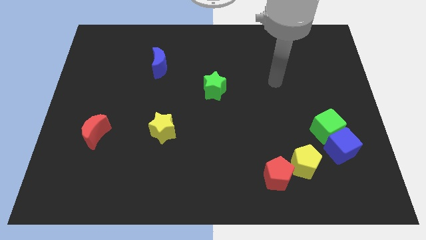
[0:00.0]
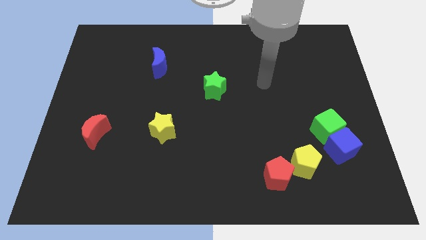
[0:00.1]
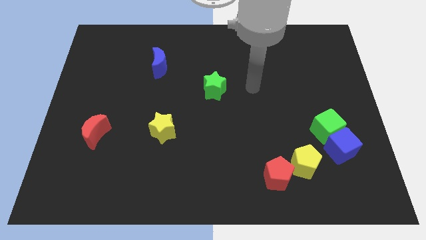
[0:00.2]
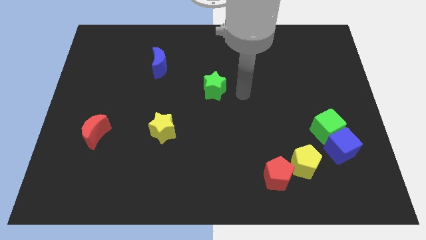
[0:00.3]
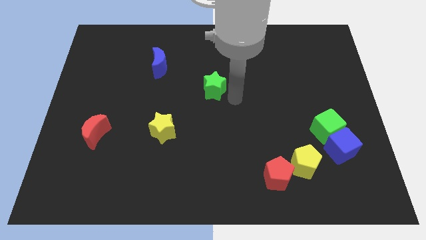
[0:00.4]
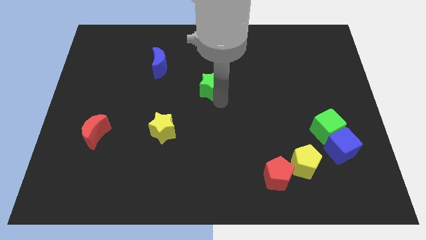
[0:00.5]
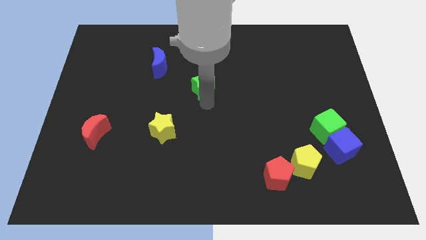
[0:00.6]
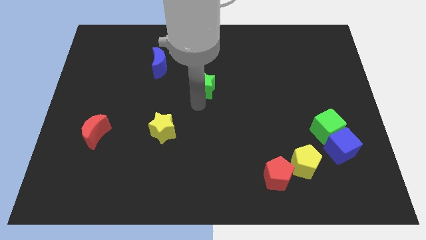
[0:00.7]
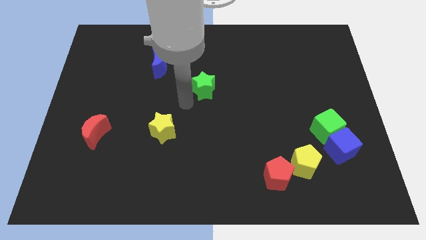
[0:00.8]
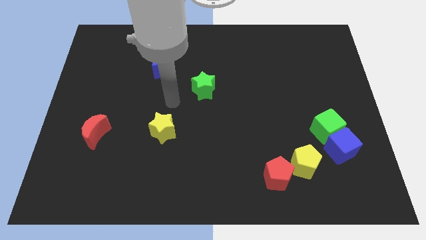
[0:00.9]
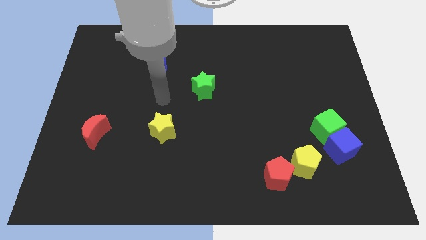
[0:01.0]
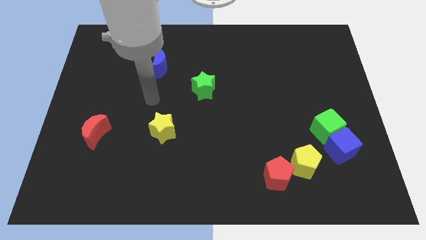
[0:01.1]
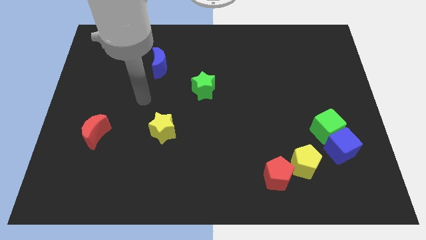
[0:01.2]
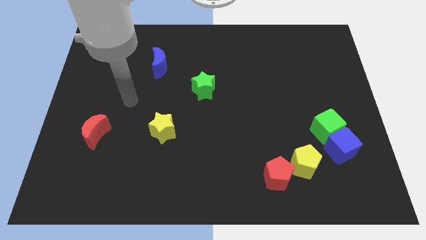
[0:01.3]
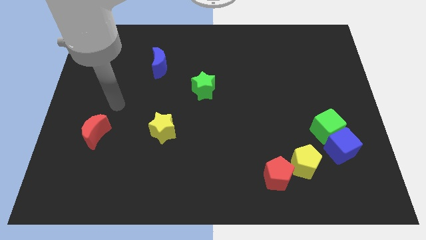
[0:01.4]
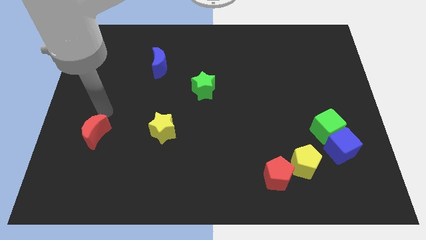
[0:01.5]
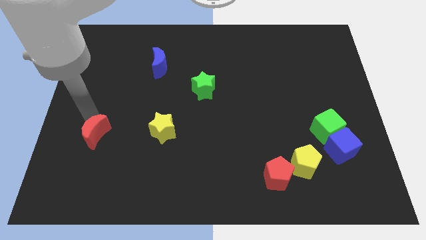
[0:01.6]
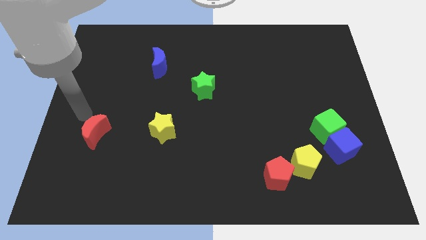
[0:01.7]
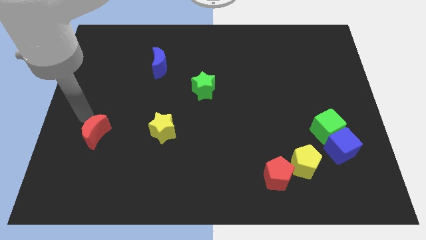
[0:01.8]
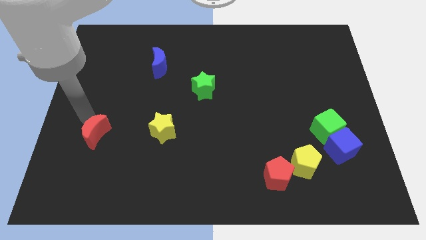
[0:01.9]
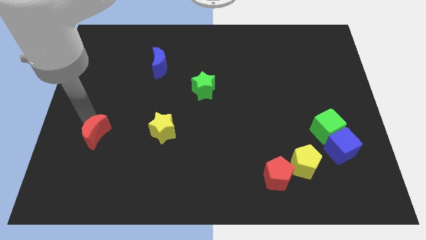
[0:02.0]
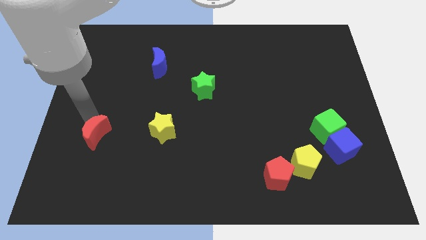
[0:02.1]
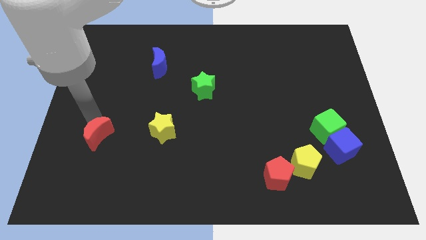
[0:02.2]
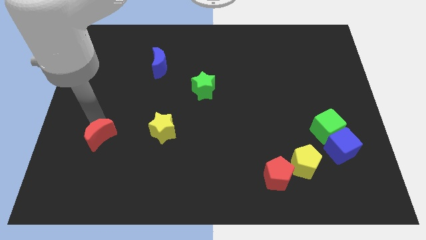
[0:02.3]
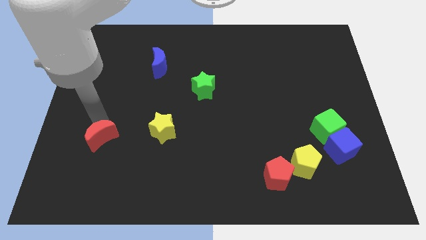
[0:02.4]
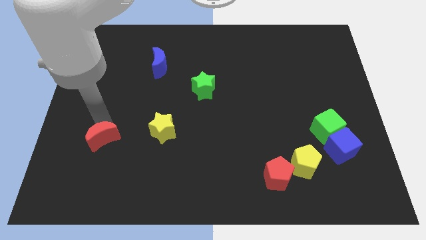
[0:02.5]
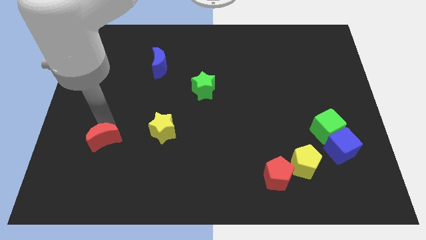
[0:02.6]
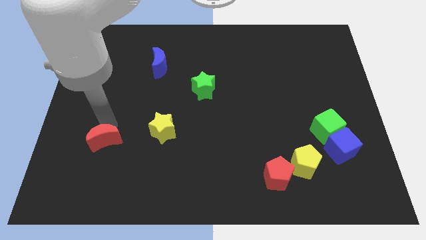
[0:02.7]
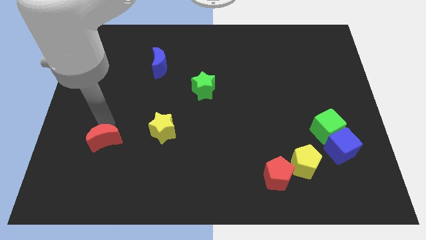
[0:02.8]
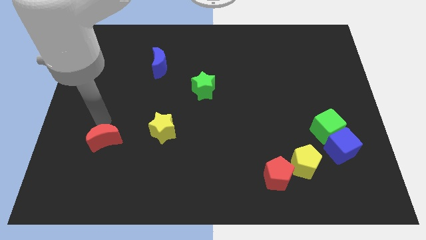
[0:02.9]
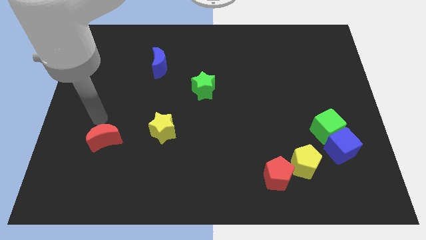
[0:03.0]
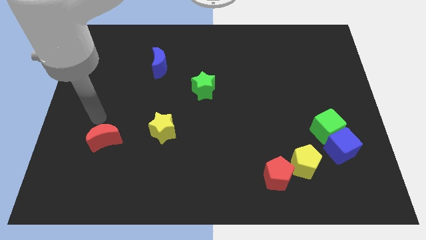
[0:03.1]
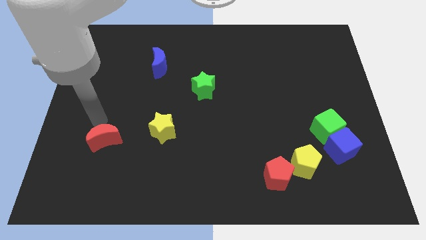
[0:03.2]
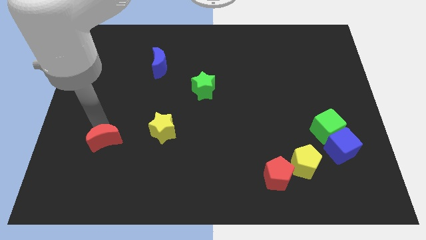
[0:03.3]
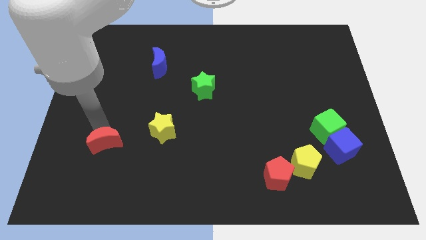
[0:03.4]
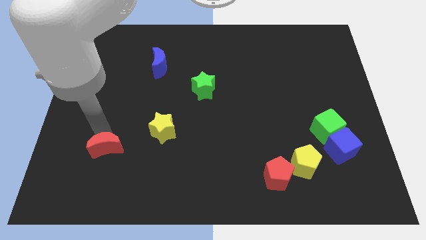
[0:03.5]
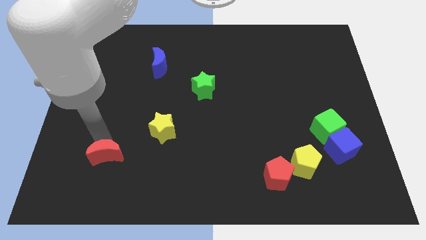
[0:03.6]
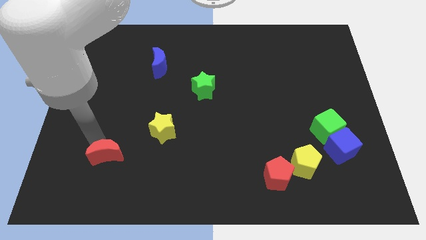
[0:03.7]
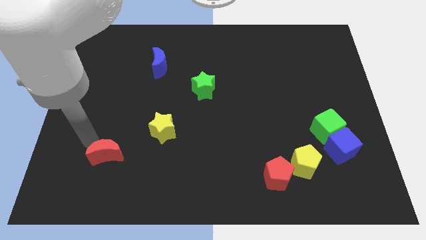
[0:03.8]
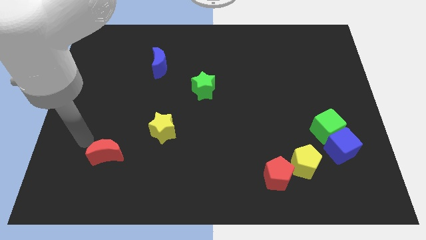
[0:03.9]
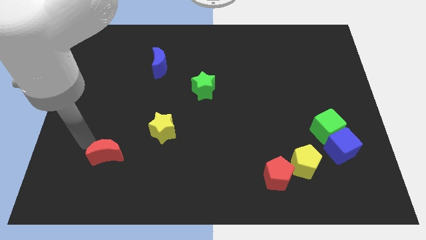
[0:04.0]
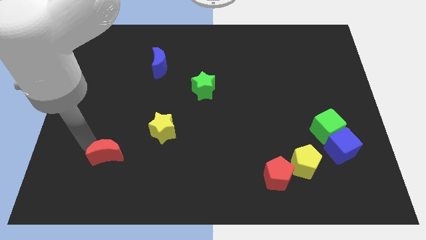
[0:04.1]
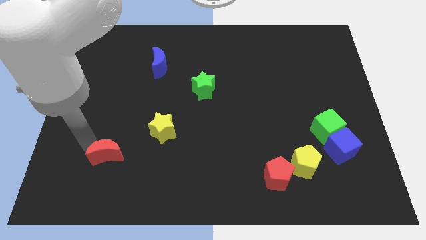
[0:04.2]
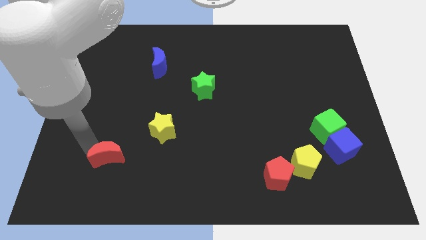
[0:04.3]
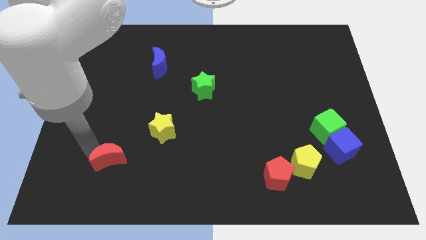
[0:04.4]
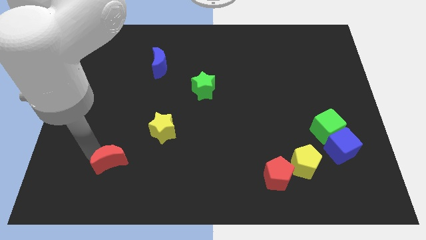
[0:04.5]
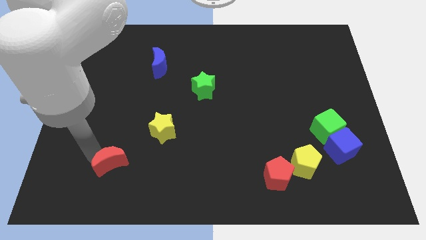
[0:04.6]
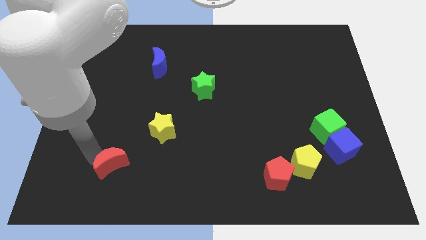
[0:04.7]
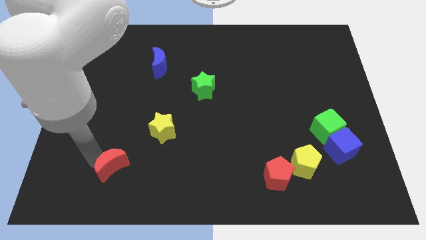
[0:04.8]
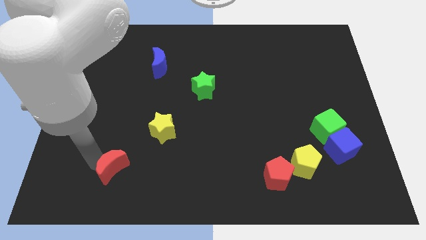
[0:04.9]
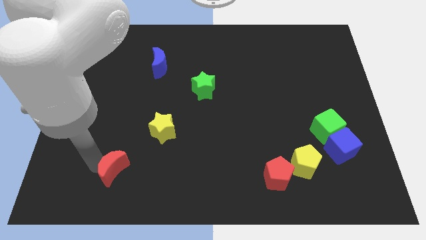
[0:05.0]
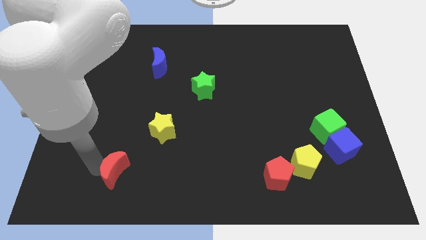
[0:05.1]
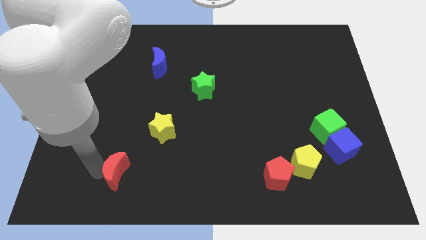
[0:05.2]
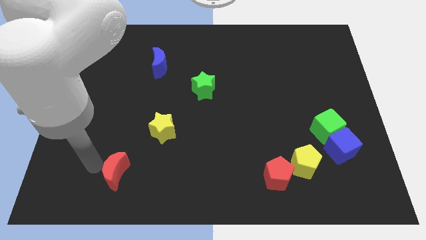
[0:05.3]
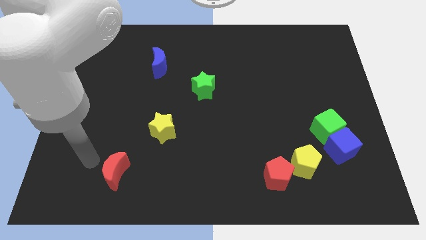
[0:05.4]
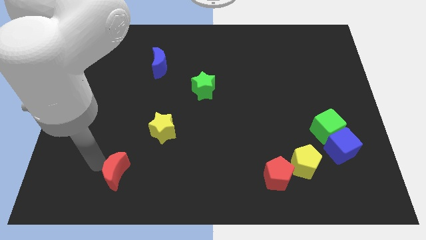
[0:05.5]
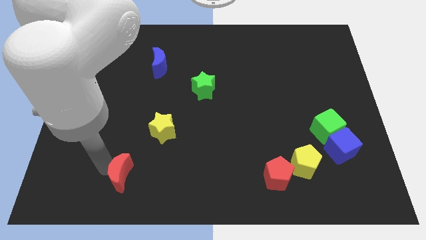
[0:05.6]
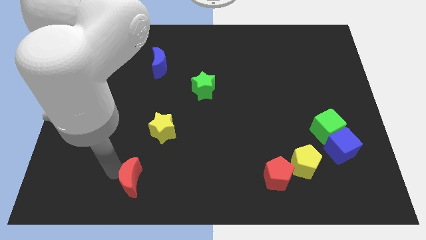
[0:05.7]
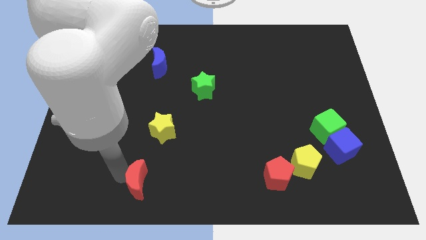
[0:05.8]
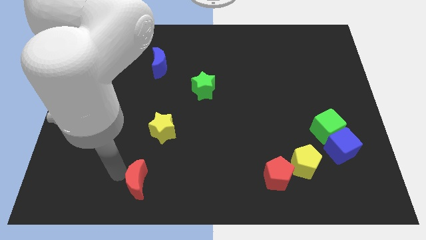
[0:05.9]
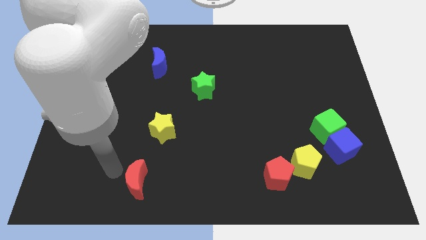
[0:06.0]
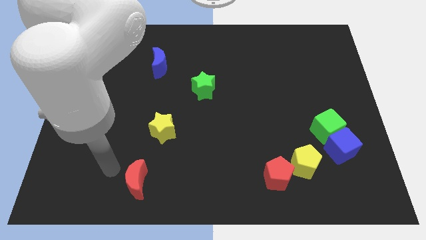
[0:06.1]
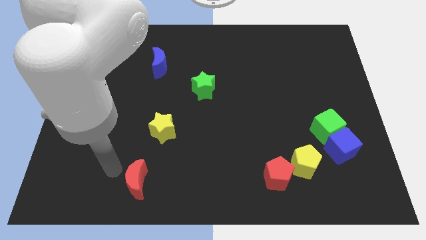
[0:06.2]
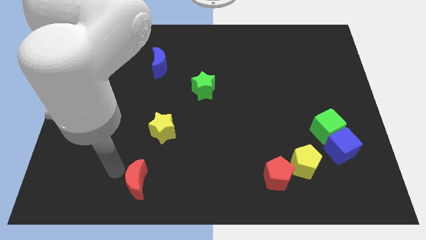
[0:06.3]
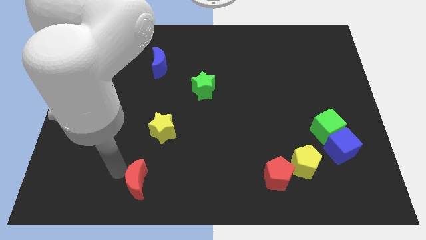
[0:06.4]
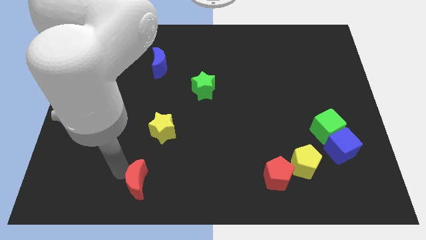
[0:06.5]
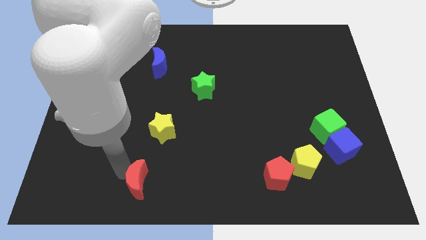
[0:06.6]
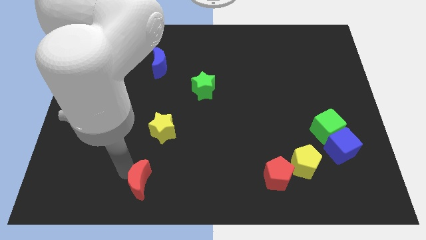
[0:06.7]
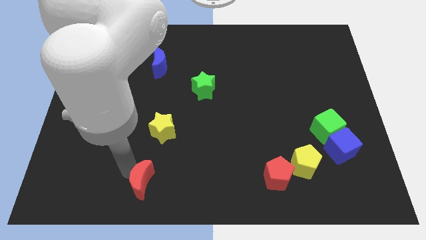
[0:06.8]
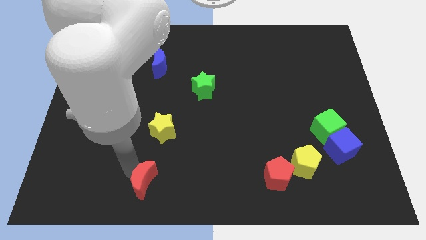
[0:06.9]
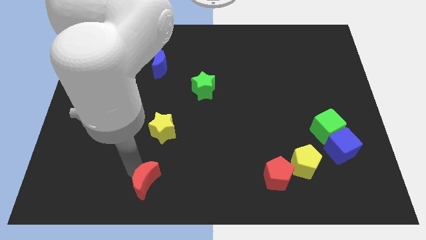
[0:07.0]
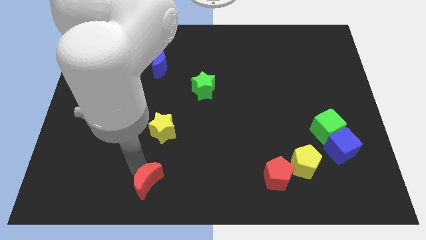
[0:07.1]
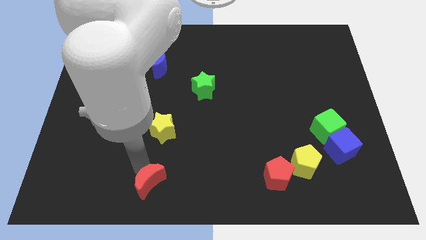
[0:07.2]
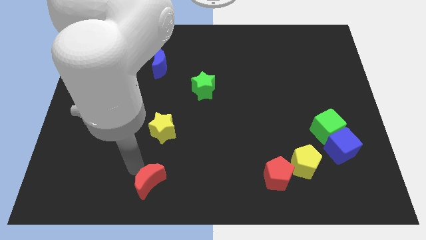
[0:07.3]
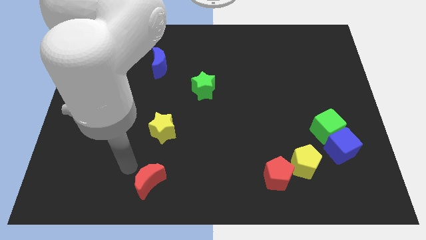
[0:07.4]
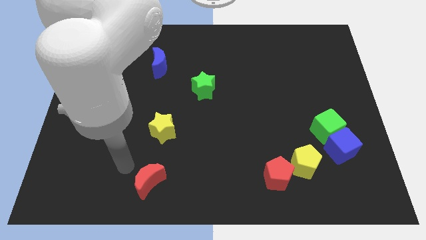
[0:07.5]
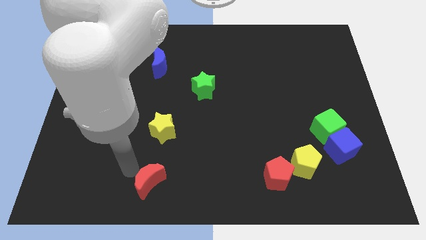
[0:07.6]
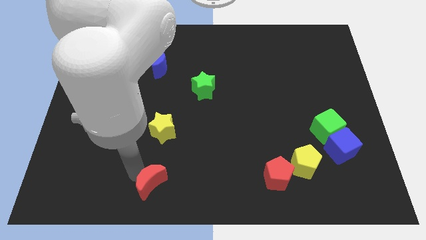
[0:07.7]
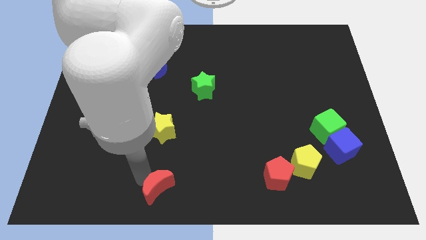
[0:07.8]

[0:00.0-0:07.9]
push the red moon to the bottom
